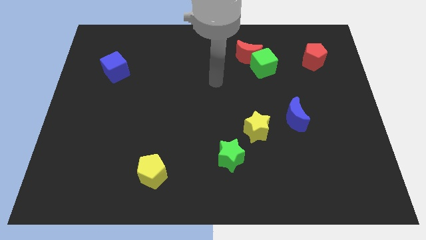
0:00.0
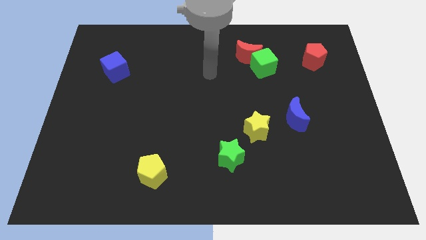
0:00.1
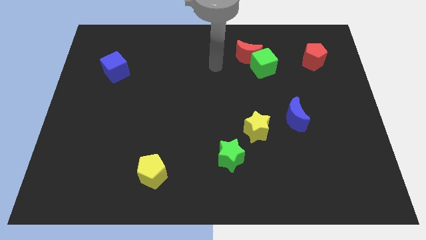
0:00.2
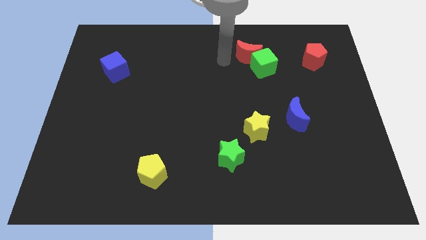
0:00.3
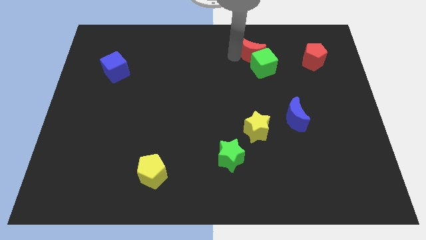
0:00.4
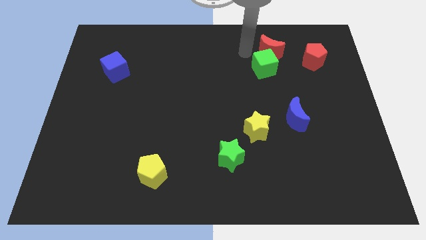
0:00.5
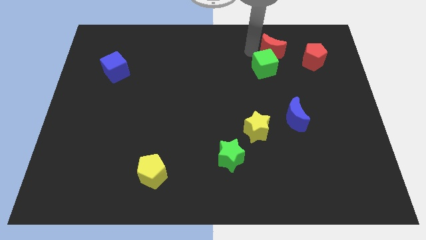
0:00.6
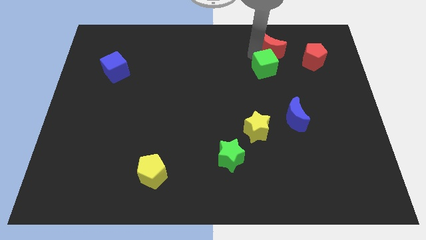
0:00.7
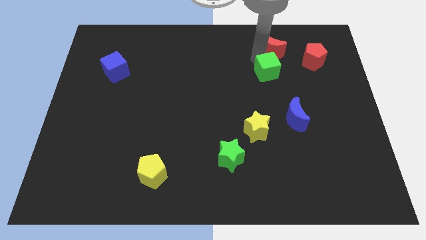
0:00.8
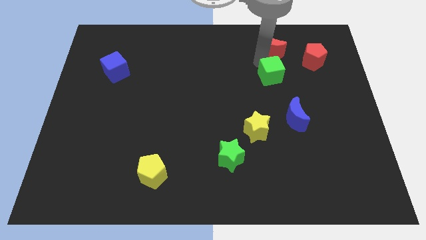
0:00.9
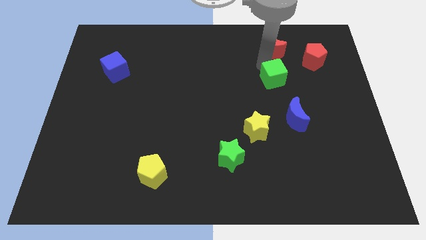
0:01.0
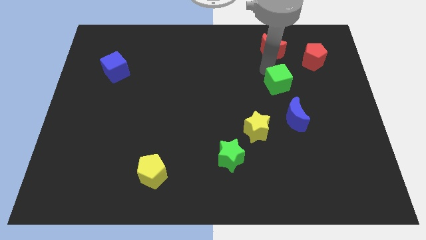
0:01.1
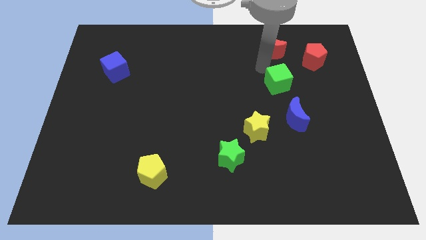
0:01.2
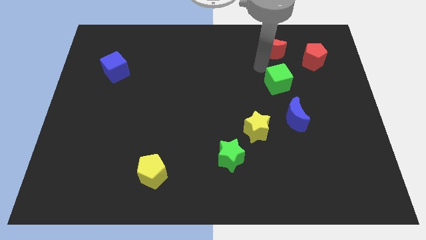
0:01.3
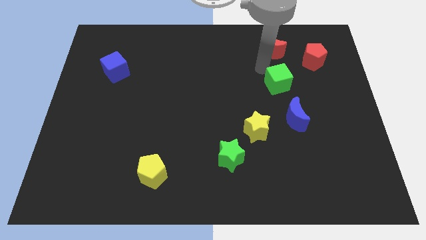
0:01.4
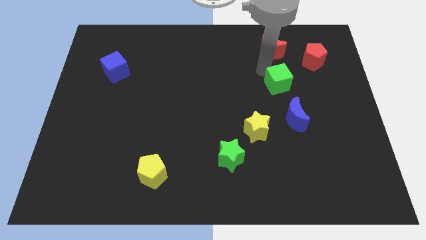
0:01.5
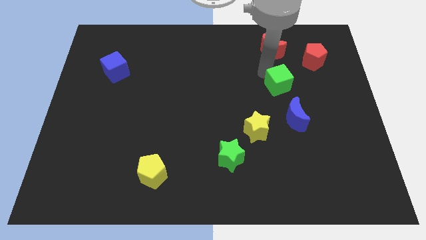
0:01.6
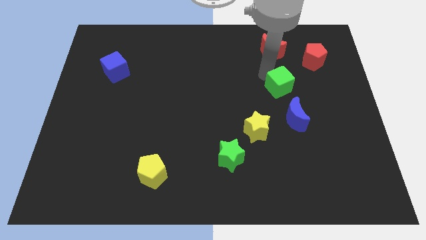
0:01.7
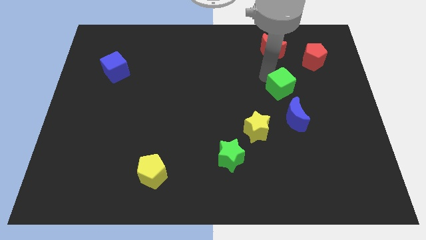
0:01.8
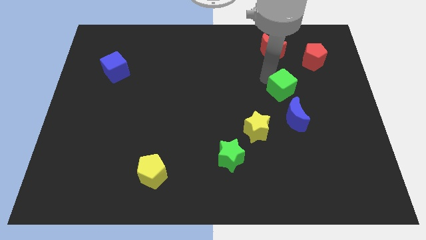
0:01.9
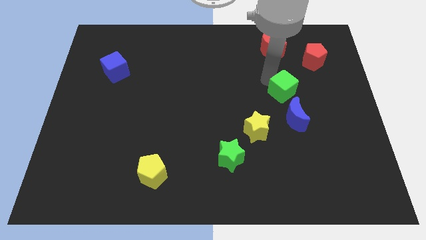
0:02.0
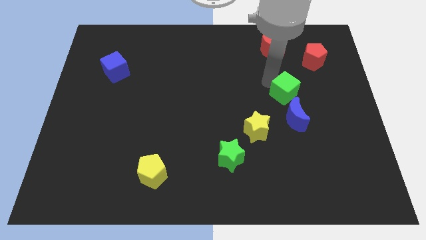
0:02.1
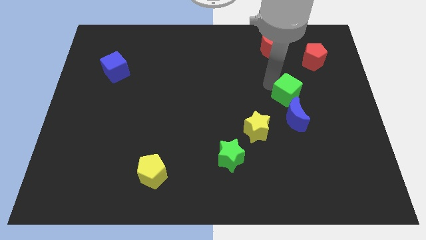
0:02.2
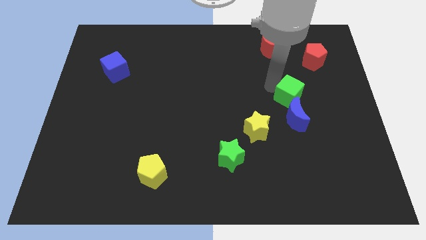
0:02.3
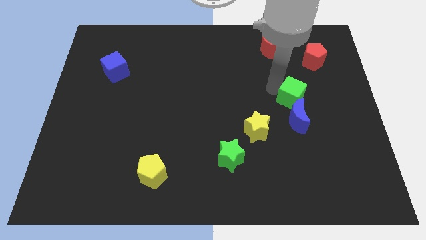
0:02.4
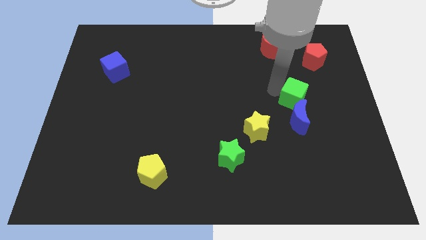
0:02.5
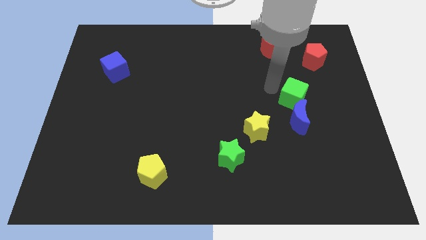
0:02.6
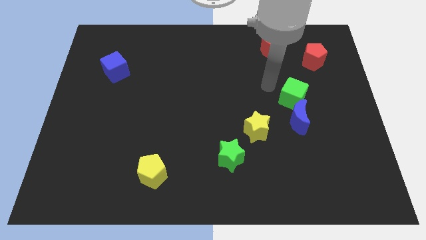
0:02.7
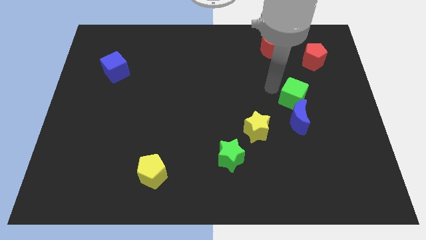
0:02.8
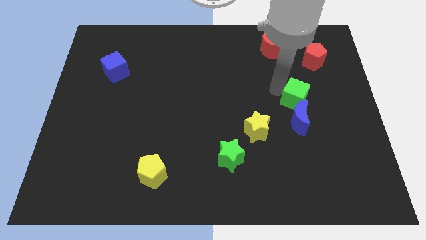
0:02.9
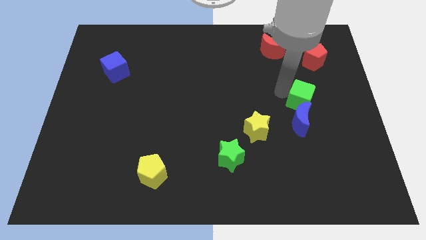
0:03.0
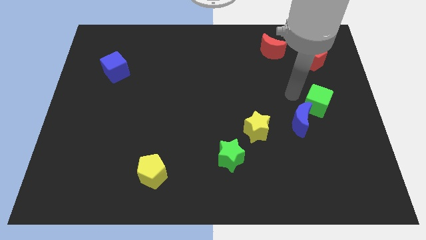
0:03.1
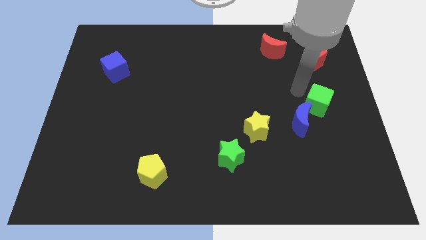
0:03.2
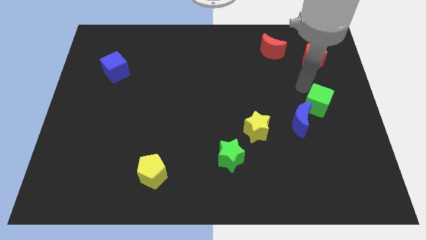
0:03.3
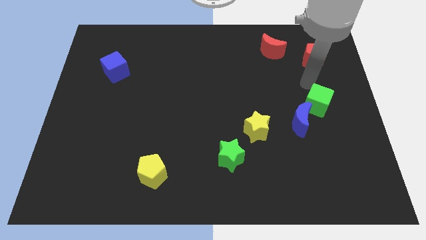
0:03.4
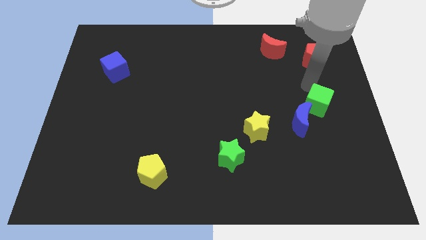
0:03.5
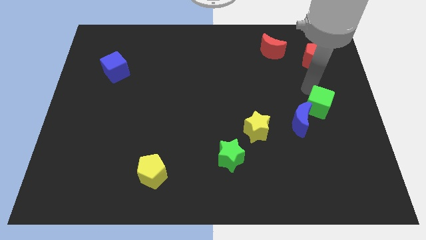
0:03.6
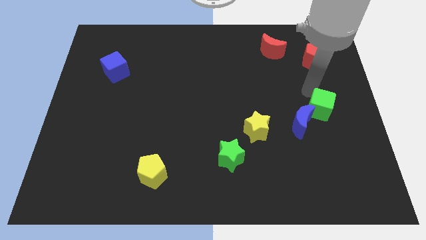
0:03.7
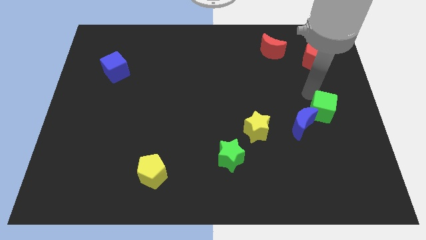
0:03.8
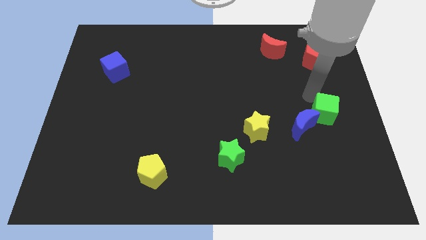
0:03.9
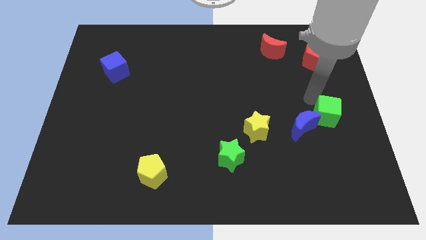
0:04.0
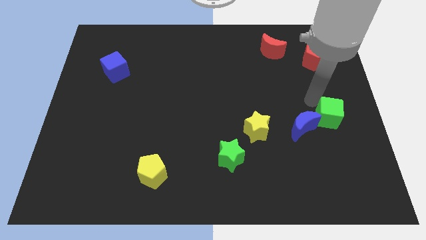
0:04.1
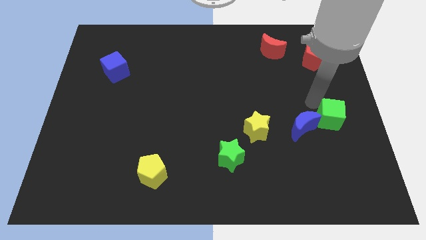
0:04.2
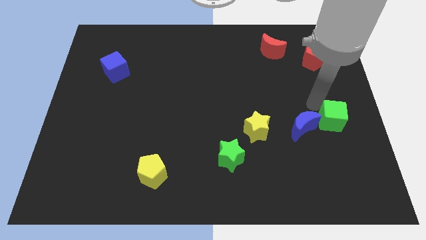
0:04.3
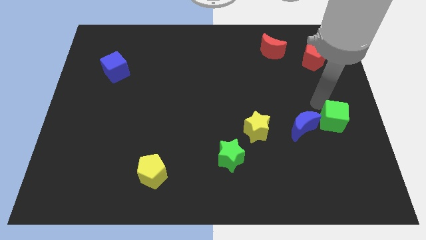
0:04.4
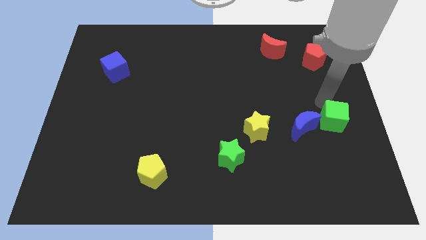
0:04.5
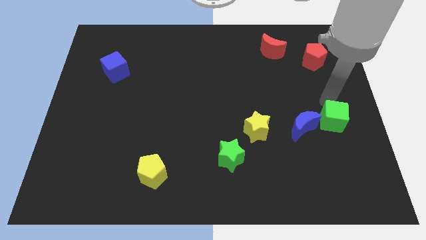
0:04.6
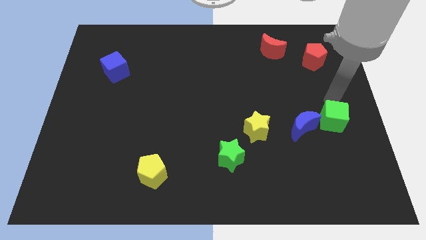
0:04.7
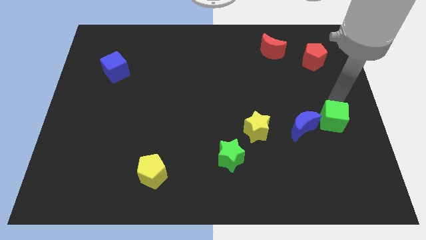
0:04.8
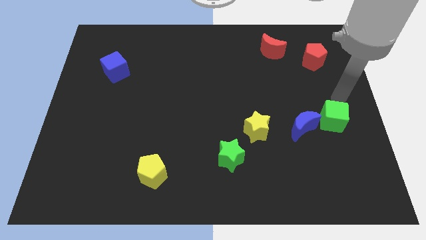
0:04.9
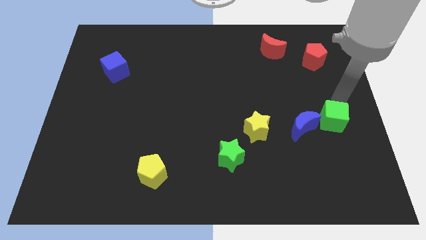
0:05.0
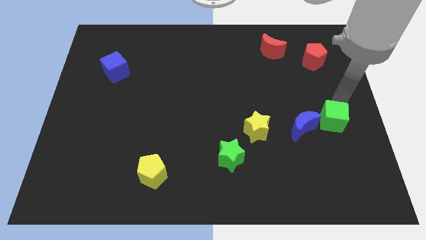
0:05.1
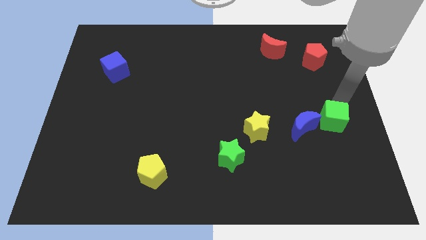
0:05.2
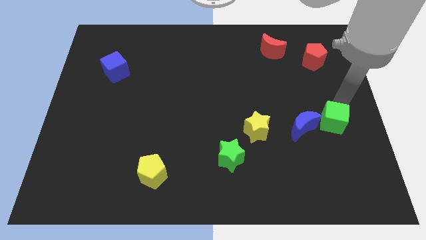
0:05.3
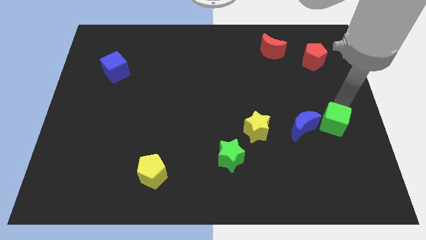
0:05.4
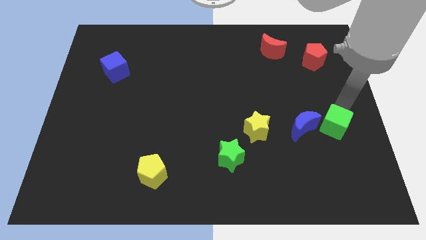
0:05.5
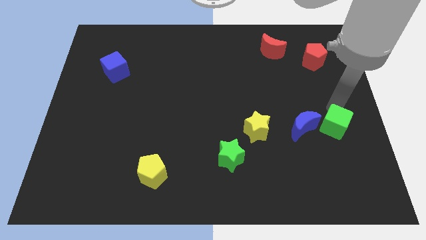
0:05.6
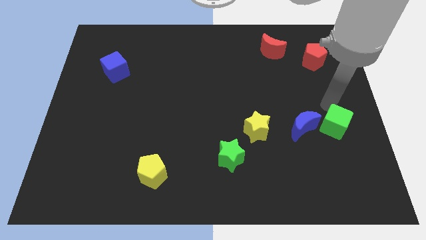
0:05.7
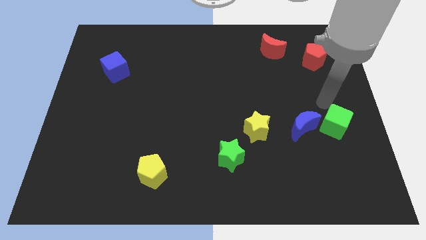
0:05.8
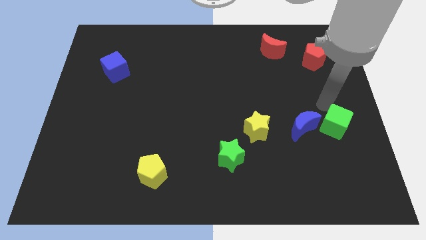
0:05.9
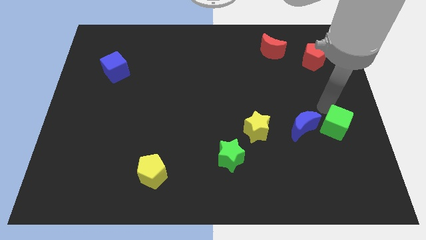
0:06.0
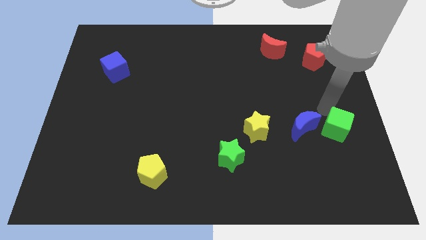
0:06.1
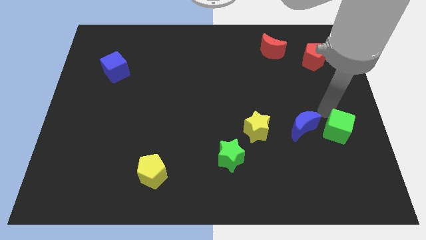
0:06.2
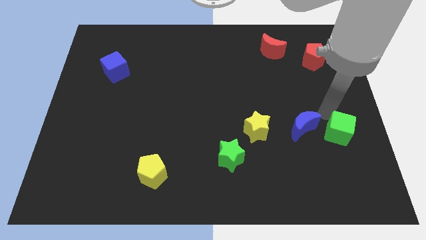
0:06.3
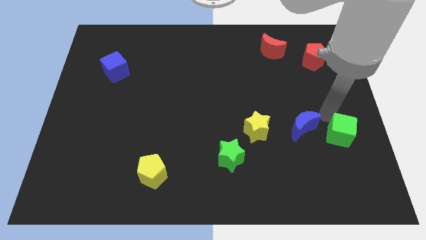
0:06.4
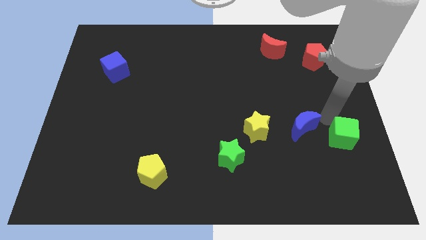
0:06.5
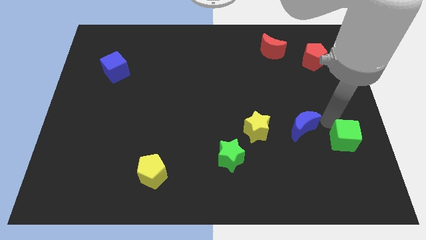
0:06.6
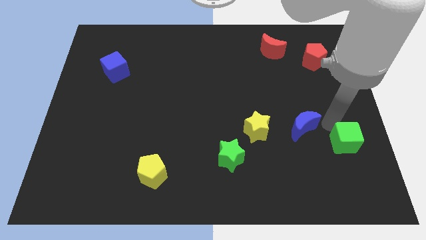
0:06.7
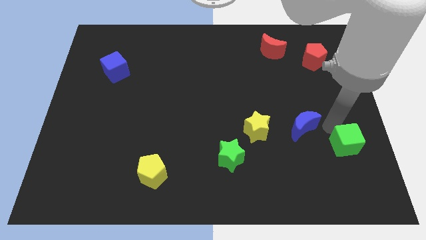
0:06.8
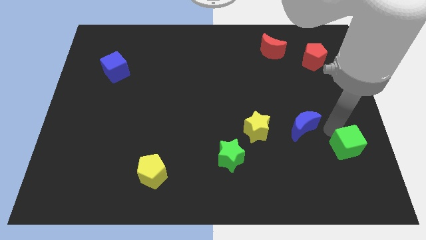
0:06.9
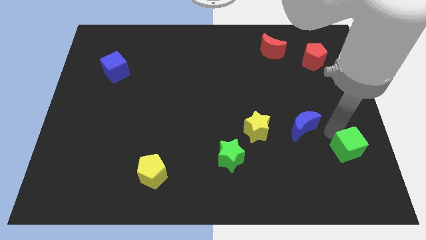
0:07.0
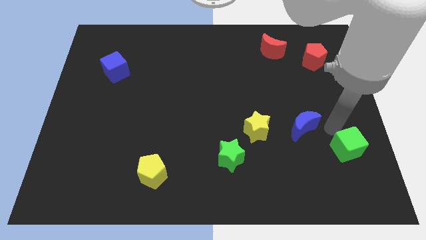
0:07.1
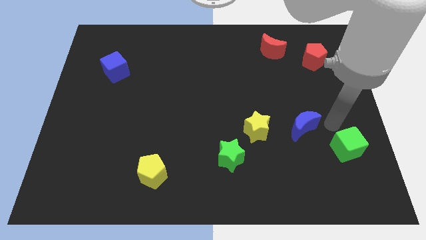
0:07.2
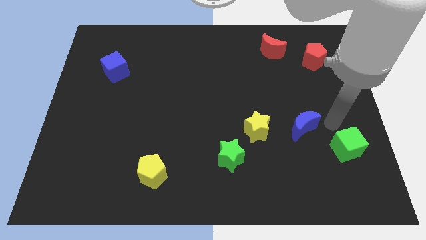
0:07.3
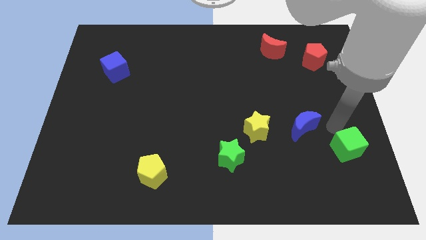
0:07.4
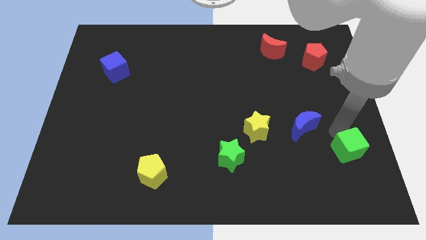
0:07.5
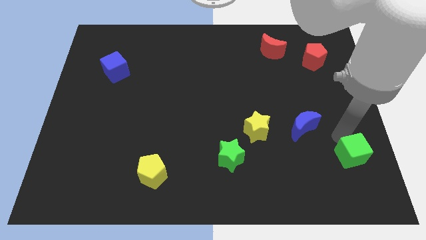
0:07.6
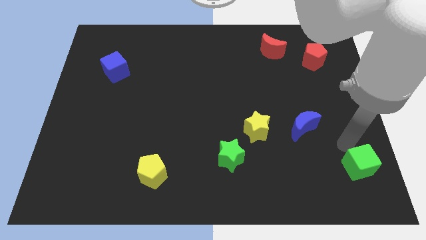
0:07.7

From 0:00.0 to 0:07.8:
move the green cube to the bottom right
